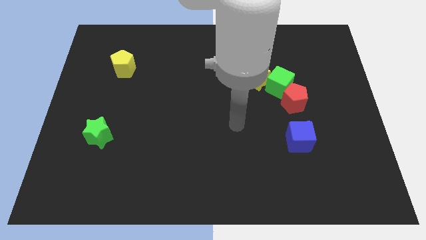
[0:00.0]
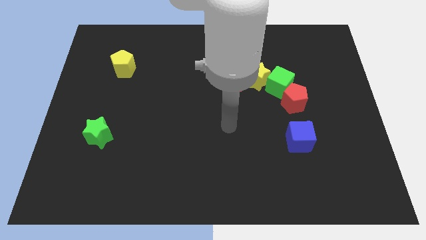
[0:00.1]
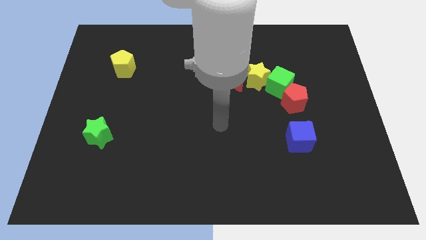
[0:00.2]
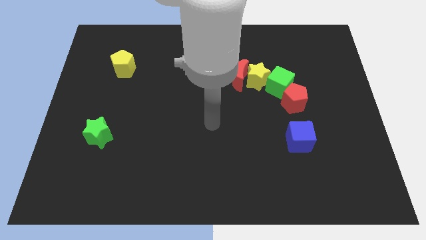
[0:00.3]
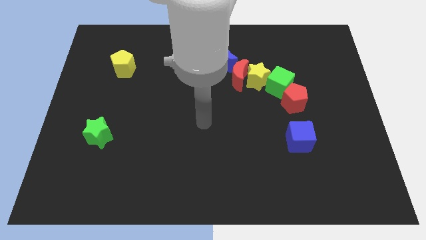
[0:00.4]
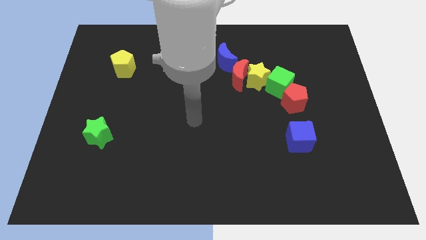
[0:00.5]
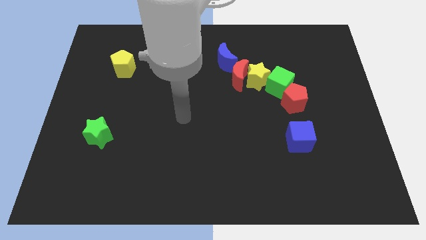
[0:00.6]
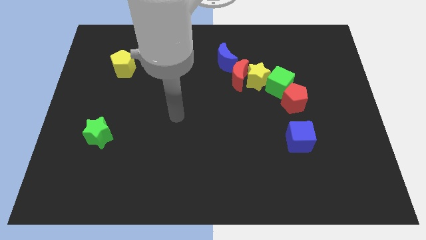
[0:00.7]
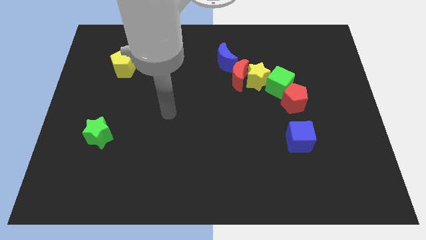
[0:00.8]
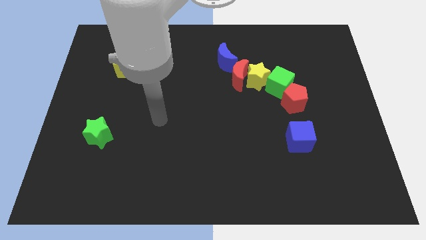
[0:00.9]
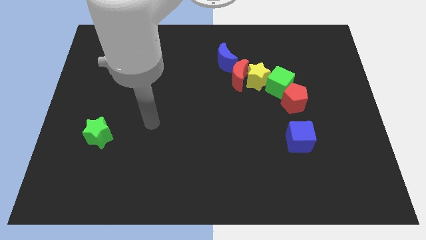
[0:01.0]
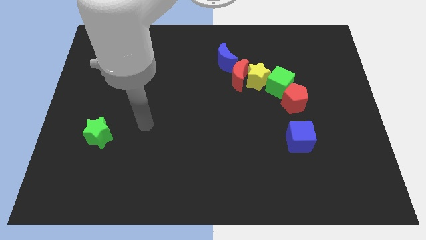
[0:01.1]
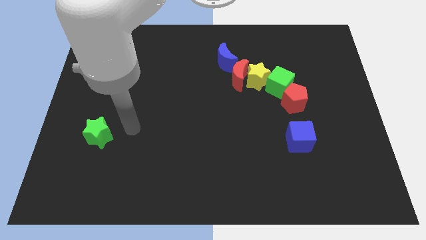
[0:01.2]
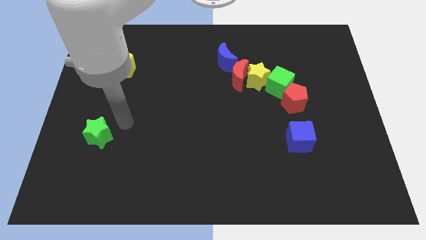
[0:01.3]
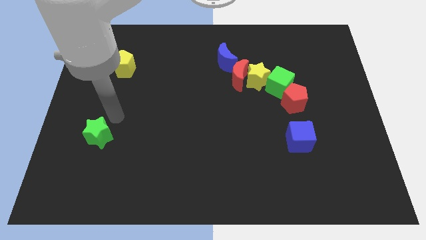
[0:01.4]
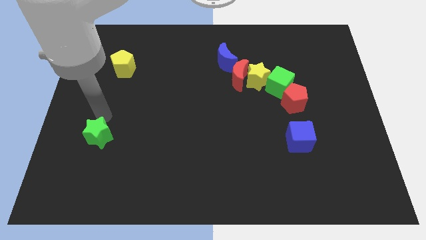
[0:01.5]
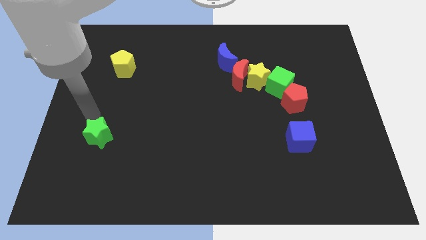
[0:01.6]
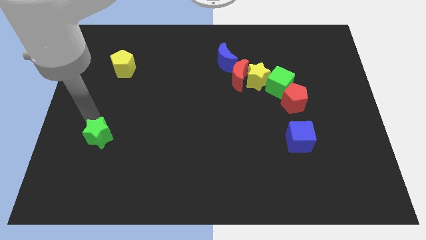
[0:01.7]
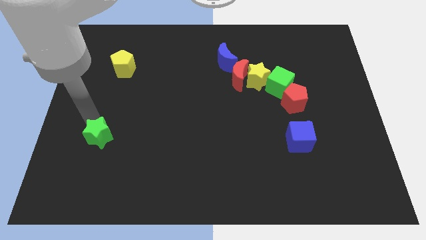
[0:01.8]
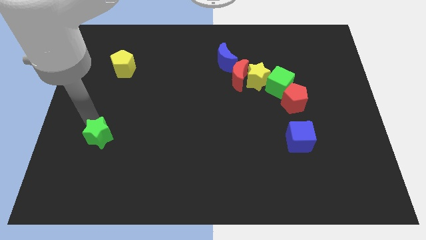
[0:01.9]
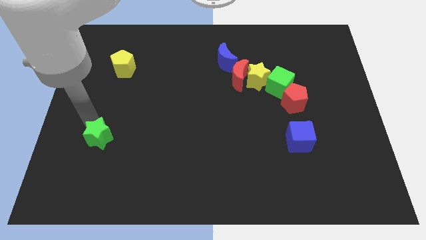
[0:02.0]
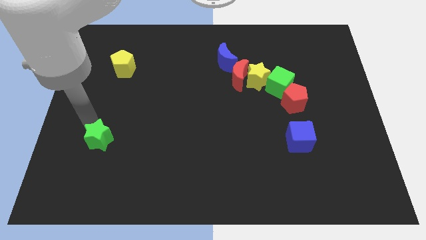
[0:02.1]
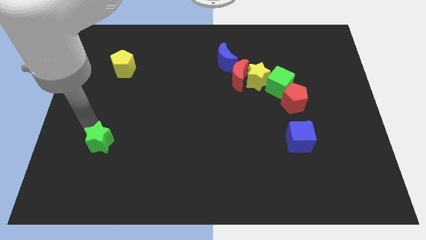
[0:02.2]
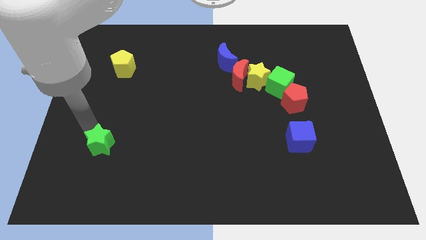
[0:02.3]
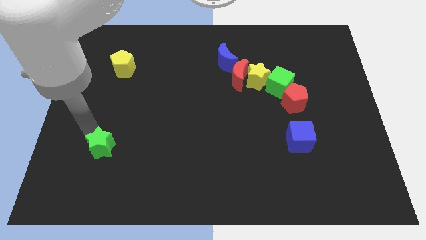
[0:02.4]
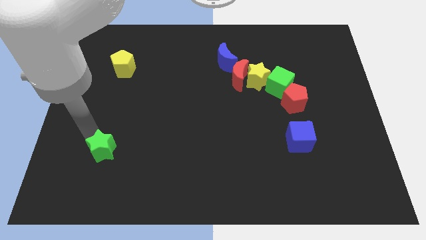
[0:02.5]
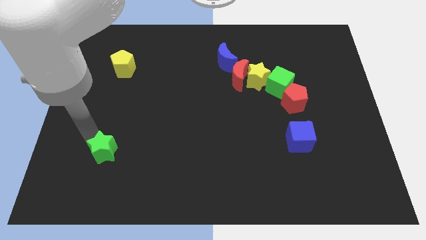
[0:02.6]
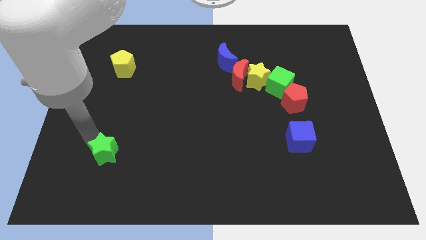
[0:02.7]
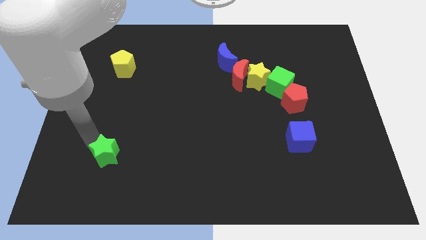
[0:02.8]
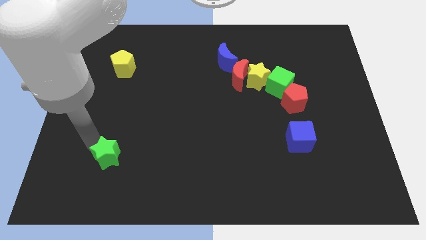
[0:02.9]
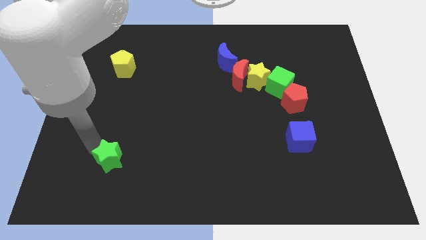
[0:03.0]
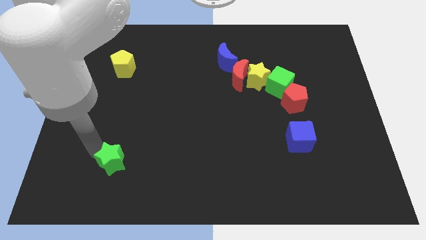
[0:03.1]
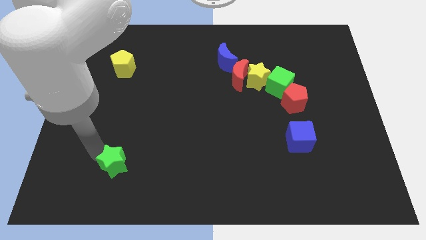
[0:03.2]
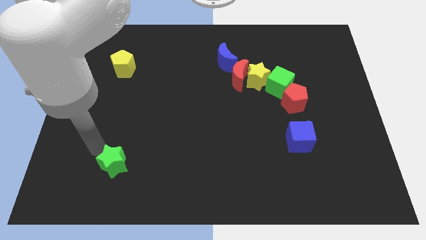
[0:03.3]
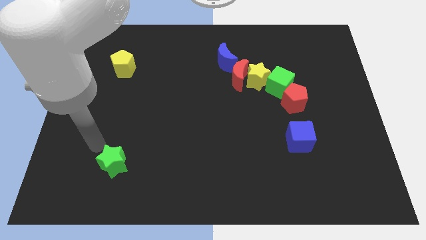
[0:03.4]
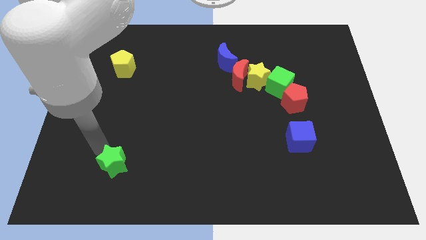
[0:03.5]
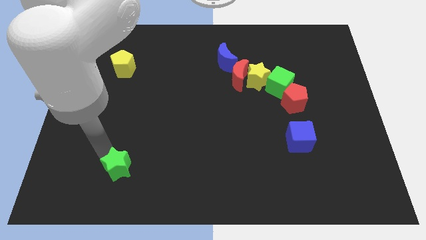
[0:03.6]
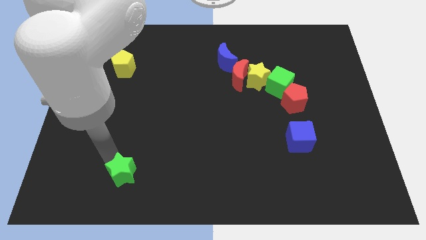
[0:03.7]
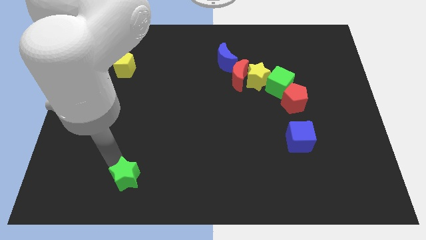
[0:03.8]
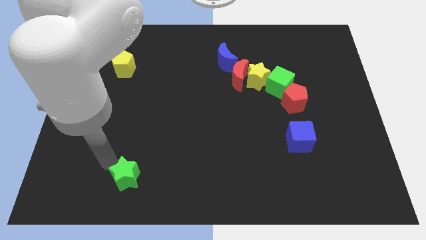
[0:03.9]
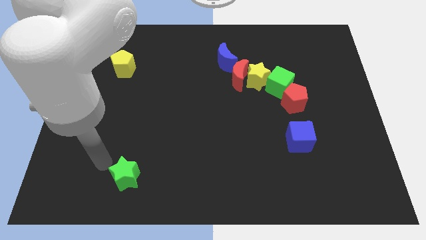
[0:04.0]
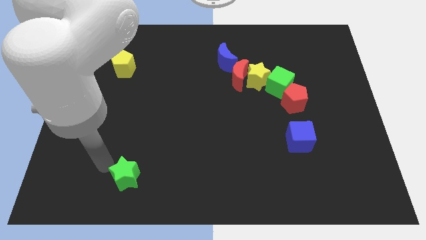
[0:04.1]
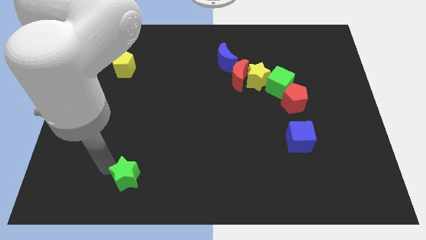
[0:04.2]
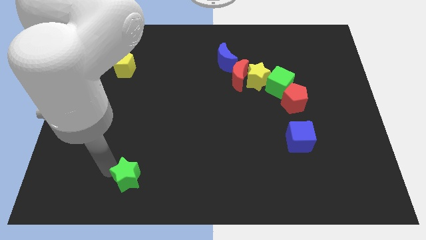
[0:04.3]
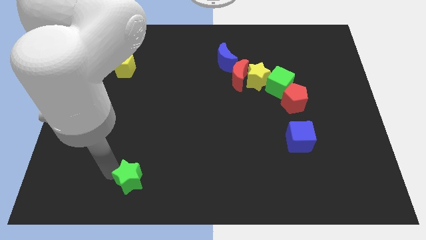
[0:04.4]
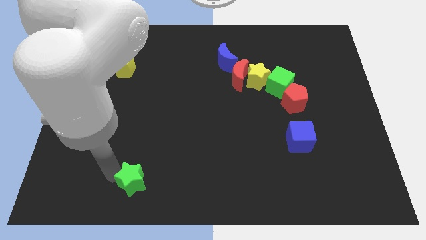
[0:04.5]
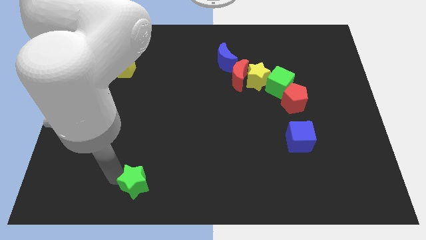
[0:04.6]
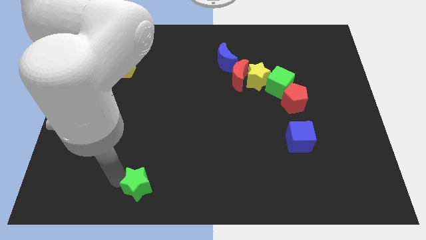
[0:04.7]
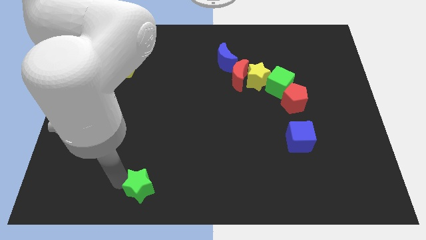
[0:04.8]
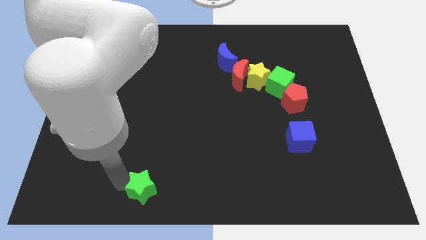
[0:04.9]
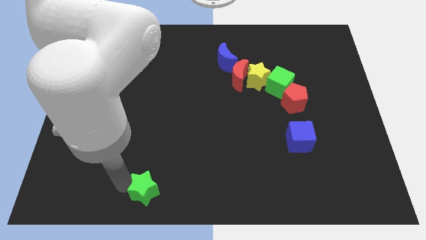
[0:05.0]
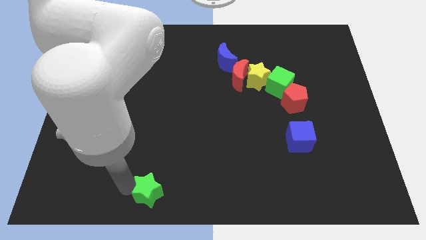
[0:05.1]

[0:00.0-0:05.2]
slide the green star to the bottom
